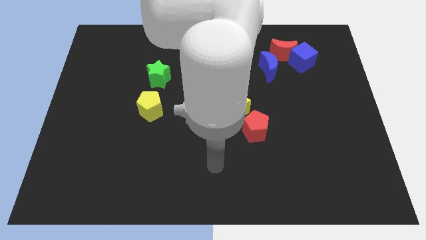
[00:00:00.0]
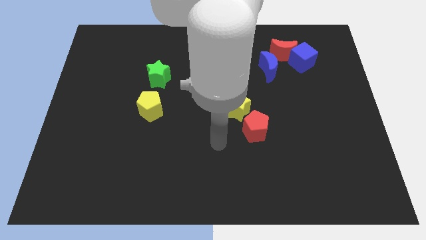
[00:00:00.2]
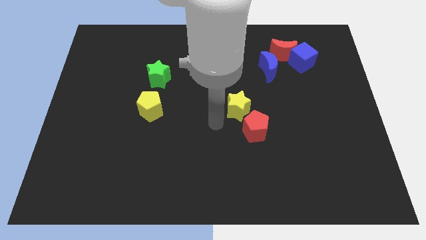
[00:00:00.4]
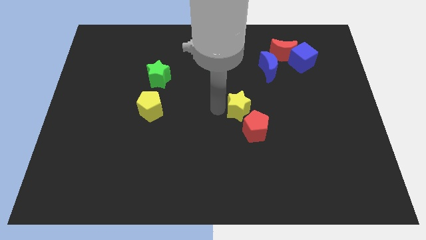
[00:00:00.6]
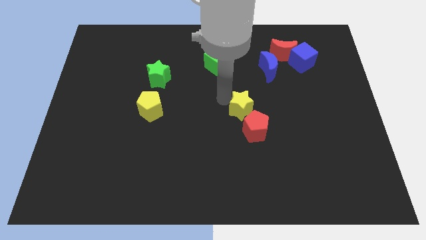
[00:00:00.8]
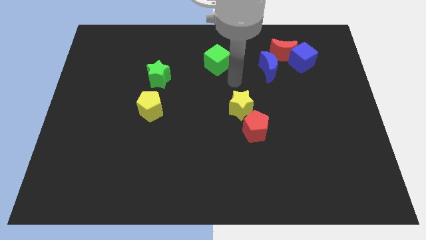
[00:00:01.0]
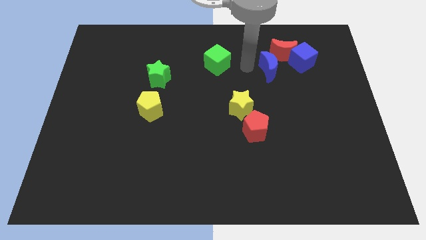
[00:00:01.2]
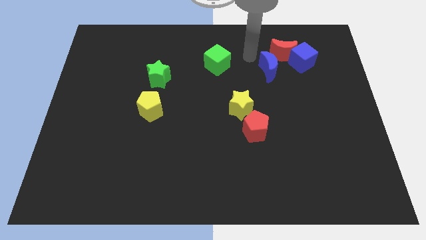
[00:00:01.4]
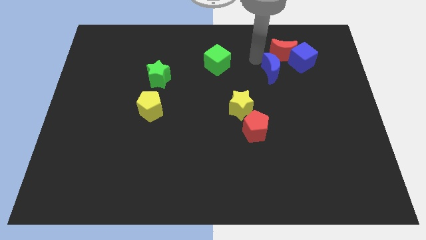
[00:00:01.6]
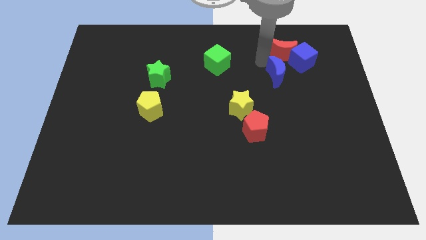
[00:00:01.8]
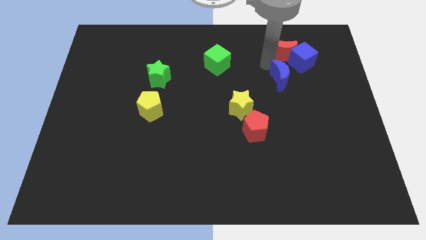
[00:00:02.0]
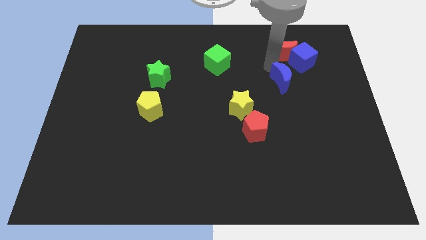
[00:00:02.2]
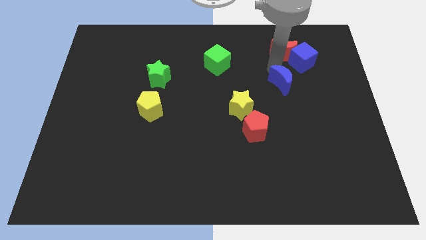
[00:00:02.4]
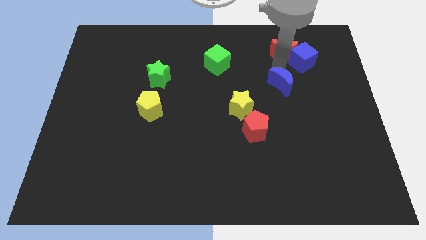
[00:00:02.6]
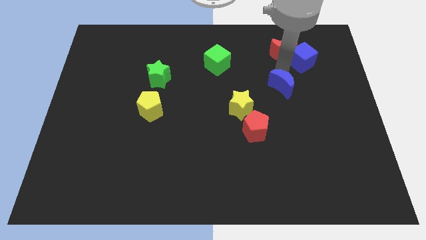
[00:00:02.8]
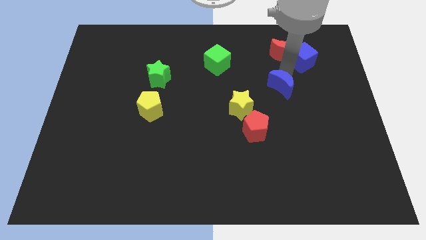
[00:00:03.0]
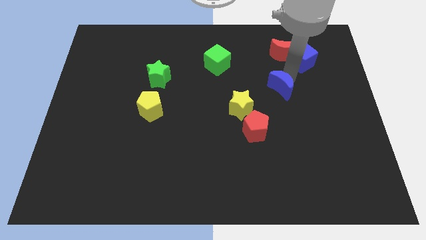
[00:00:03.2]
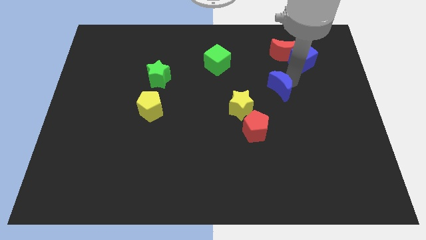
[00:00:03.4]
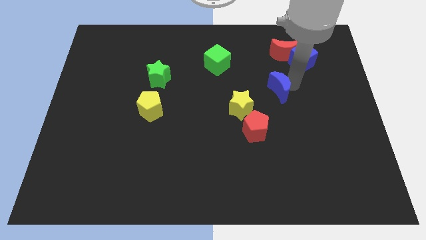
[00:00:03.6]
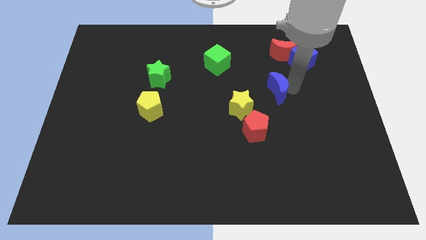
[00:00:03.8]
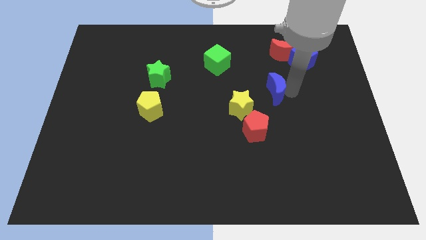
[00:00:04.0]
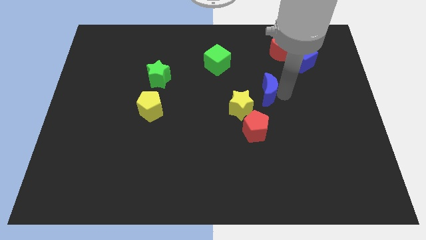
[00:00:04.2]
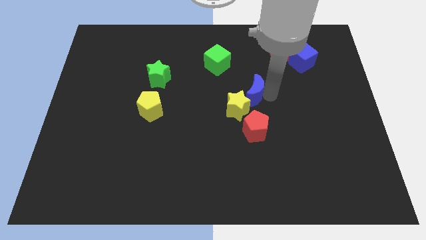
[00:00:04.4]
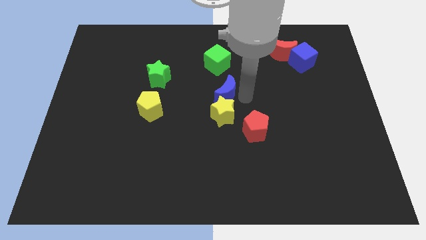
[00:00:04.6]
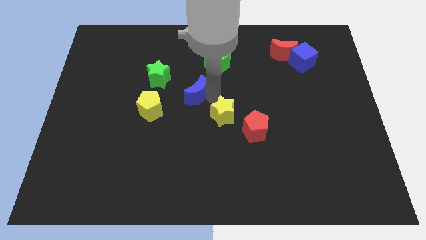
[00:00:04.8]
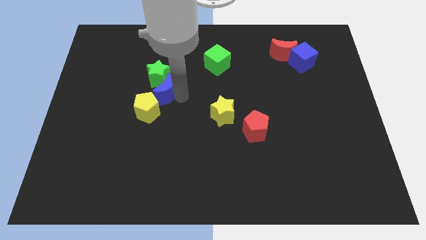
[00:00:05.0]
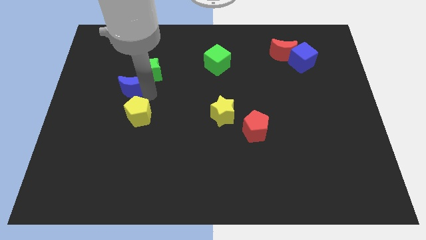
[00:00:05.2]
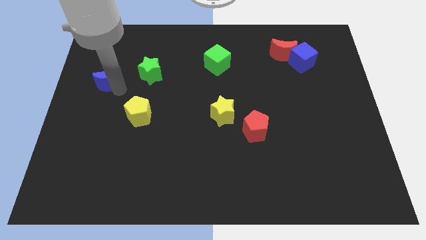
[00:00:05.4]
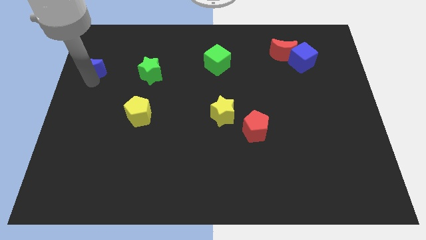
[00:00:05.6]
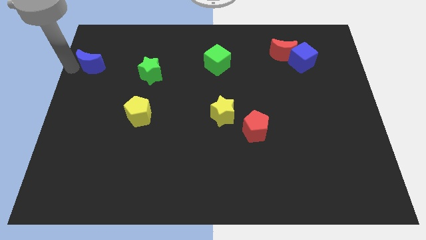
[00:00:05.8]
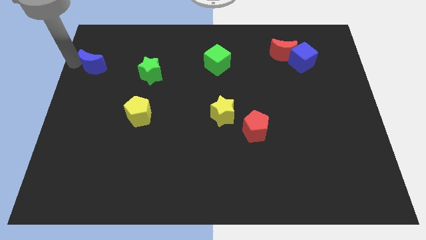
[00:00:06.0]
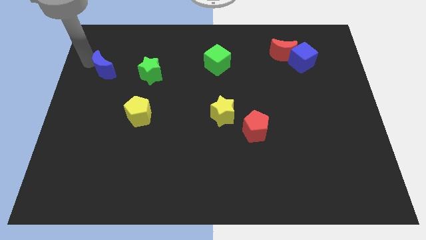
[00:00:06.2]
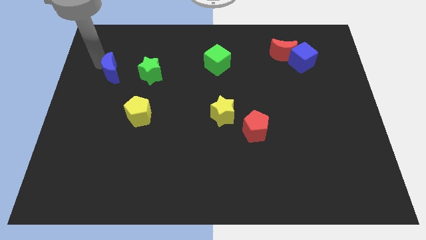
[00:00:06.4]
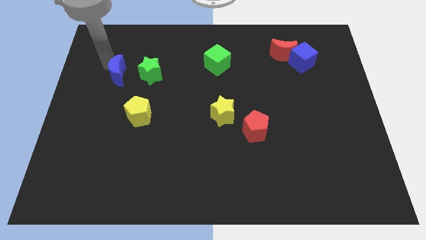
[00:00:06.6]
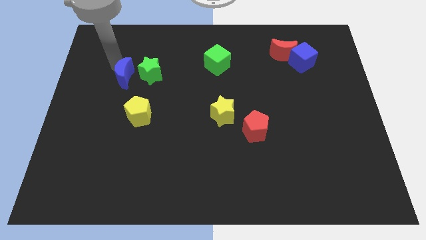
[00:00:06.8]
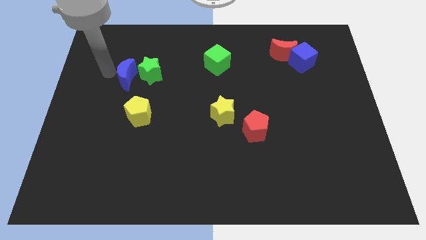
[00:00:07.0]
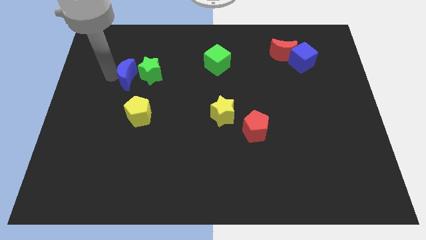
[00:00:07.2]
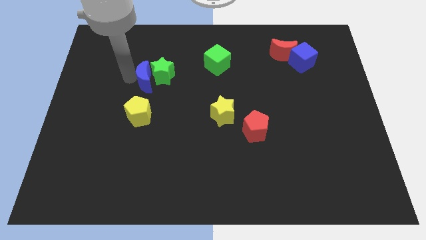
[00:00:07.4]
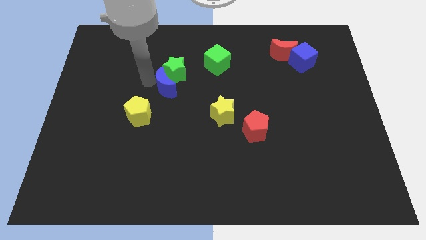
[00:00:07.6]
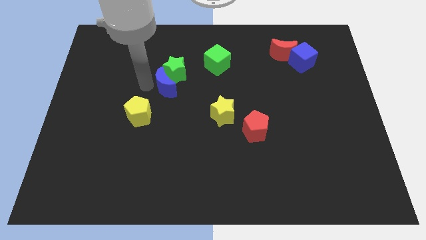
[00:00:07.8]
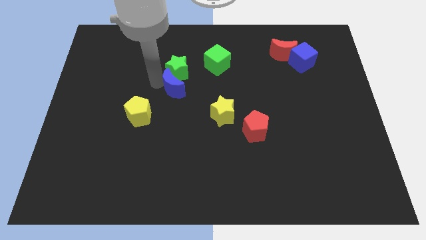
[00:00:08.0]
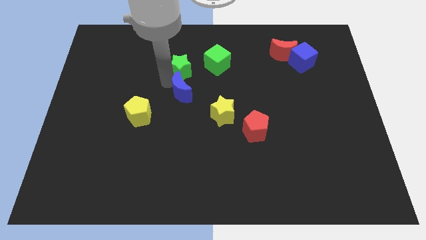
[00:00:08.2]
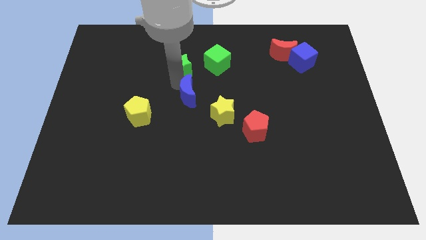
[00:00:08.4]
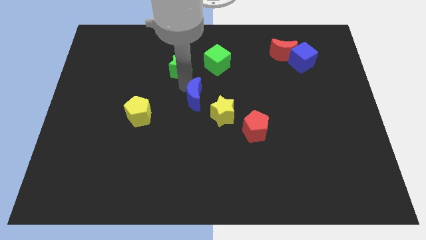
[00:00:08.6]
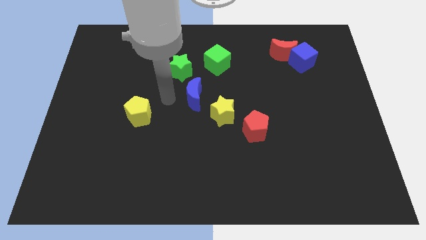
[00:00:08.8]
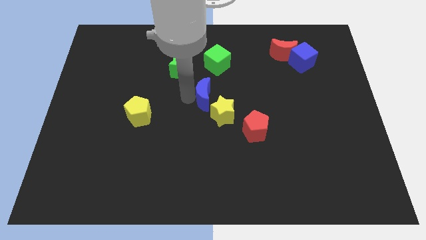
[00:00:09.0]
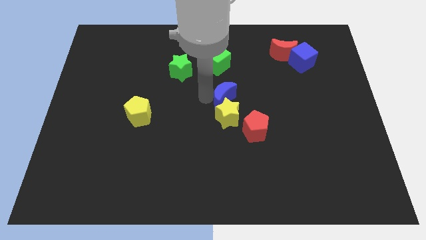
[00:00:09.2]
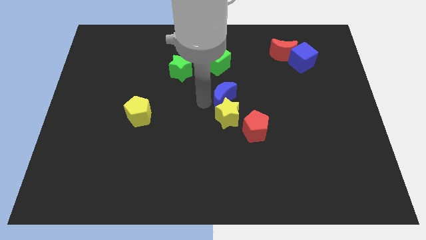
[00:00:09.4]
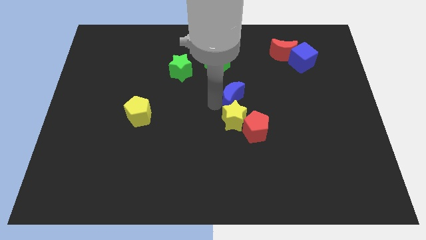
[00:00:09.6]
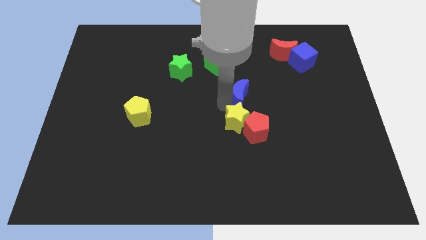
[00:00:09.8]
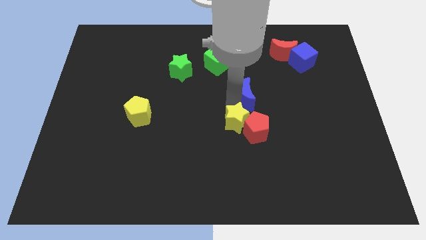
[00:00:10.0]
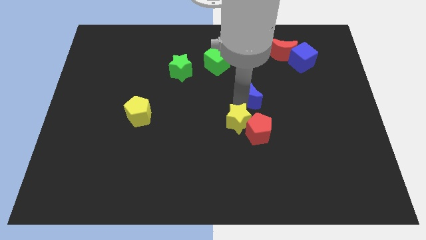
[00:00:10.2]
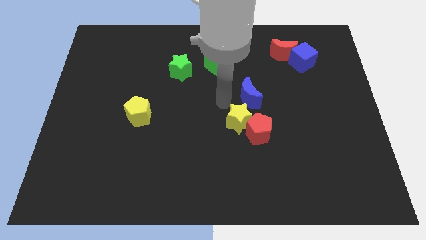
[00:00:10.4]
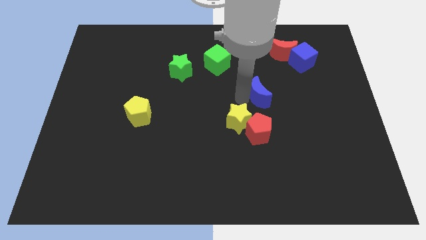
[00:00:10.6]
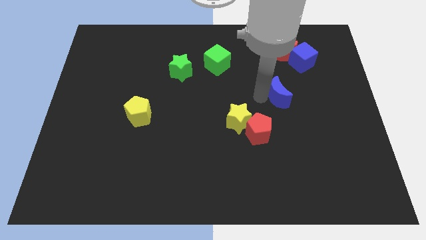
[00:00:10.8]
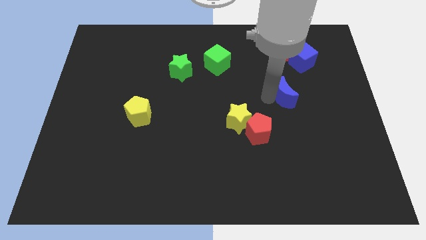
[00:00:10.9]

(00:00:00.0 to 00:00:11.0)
slide the blue moon down and then right a bit

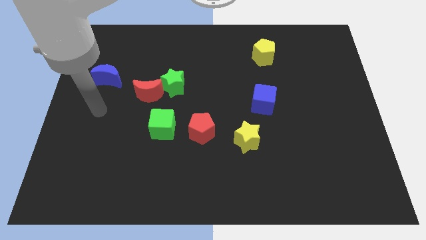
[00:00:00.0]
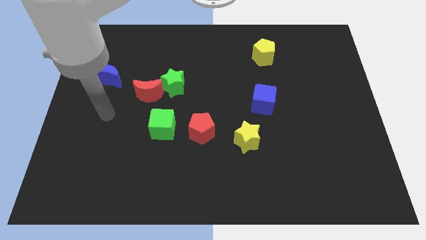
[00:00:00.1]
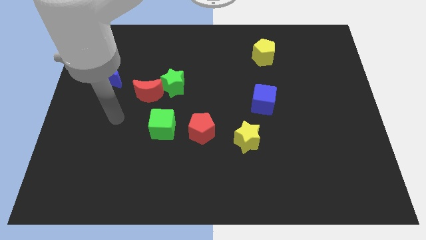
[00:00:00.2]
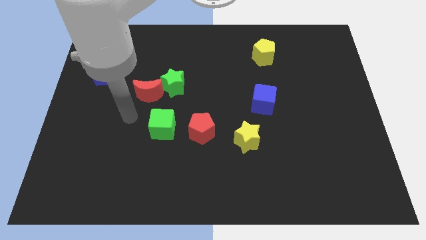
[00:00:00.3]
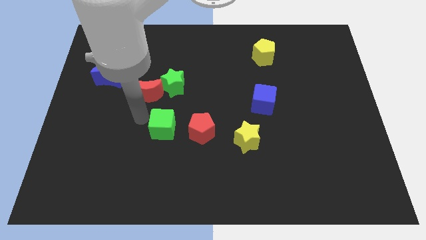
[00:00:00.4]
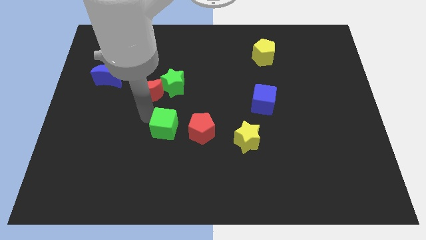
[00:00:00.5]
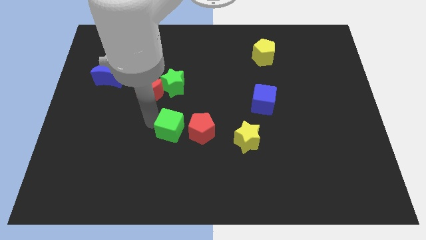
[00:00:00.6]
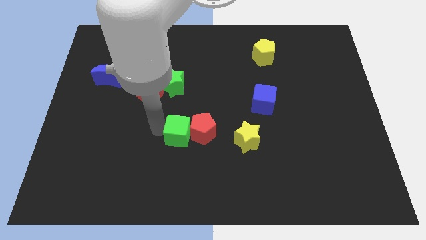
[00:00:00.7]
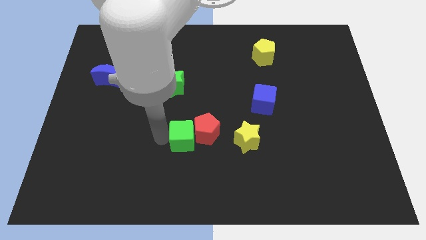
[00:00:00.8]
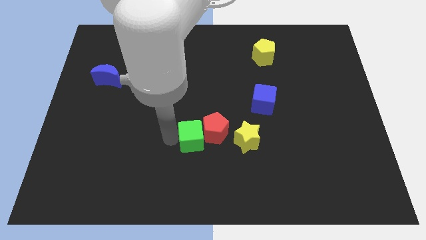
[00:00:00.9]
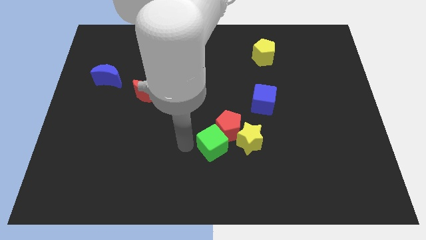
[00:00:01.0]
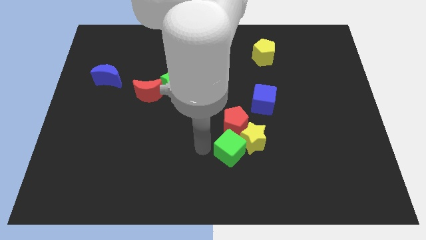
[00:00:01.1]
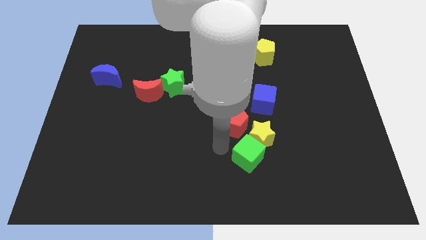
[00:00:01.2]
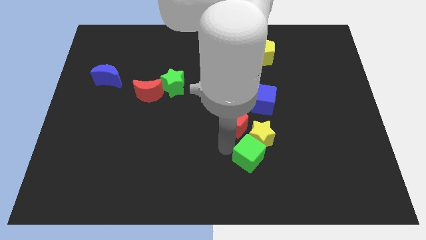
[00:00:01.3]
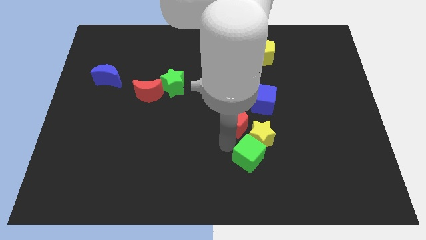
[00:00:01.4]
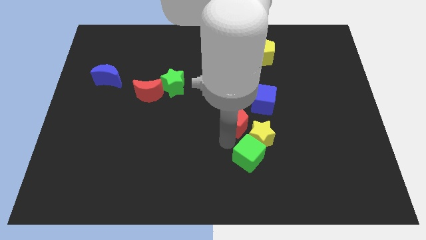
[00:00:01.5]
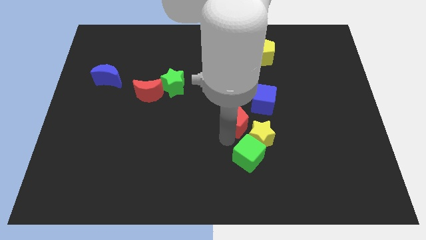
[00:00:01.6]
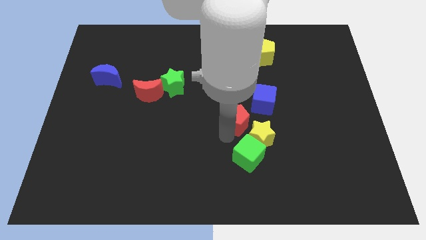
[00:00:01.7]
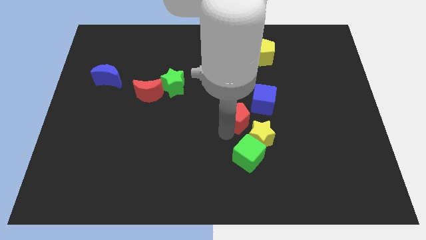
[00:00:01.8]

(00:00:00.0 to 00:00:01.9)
slightly slide the red pentagon up and right diagonally
